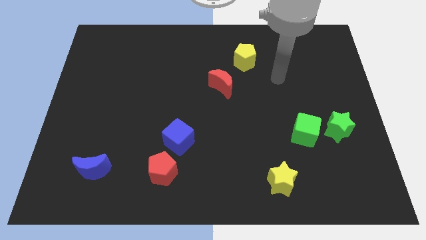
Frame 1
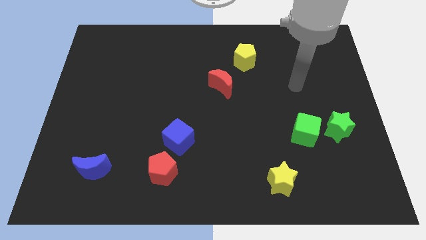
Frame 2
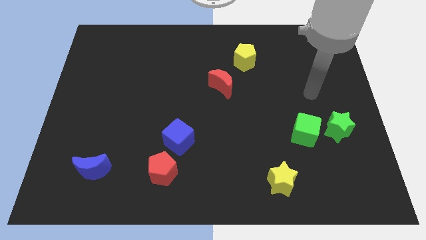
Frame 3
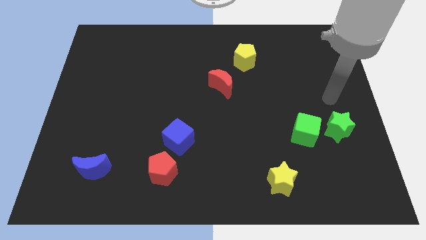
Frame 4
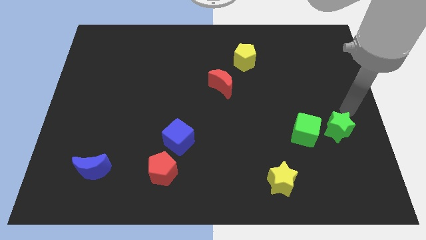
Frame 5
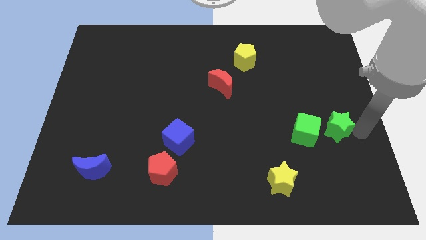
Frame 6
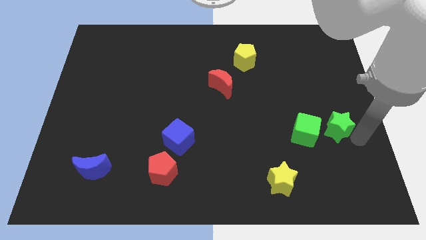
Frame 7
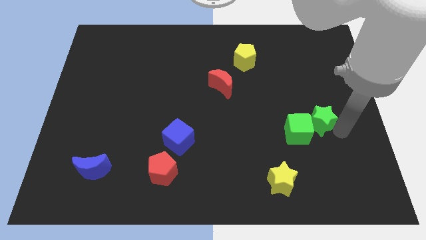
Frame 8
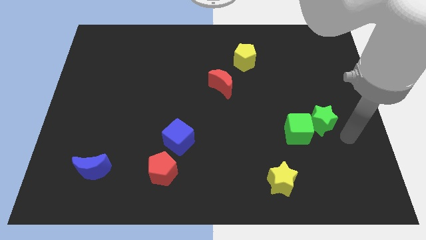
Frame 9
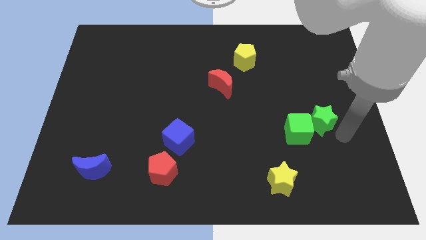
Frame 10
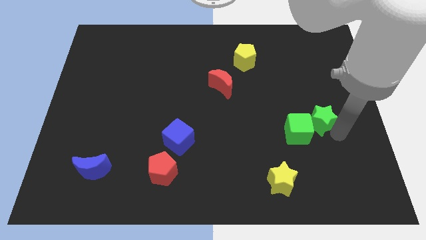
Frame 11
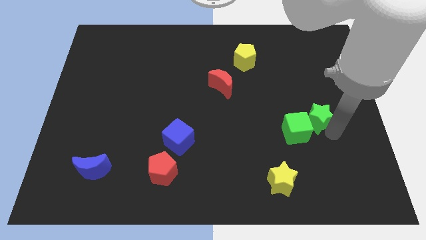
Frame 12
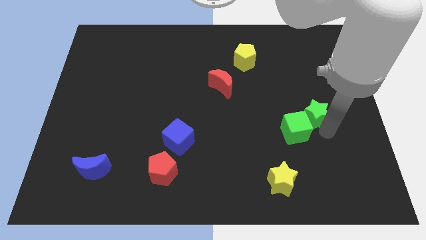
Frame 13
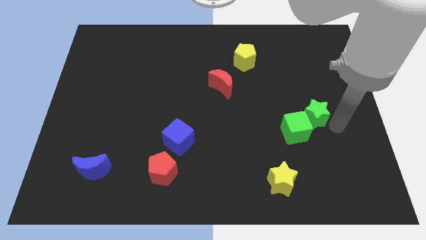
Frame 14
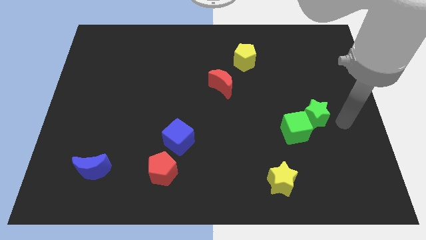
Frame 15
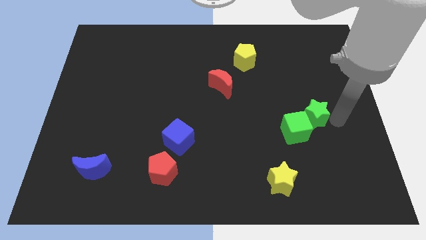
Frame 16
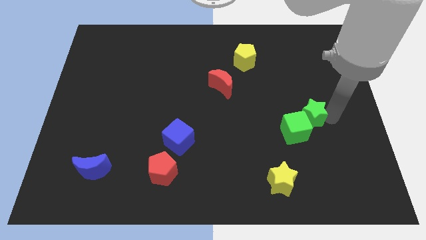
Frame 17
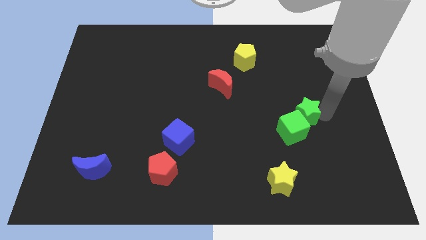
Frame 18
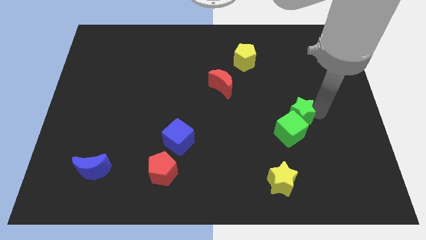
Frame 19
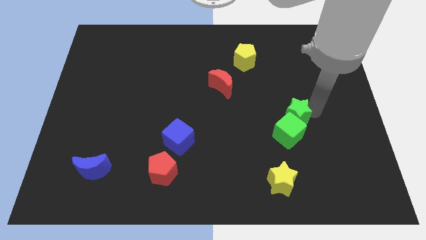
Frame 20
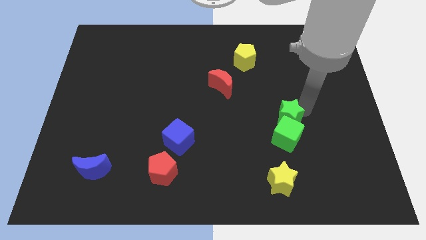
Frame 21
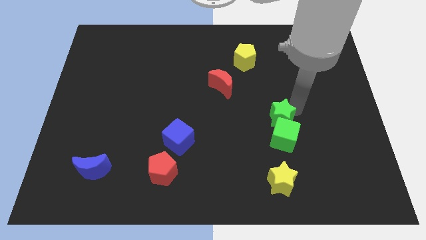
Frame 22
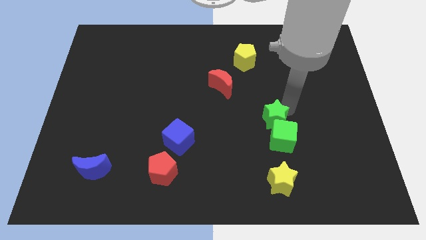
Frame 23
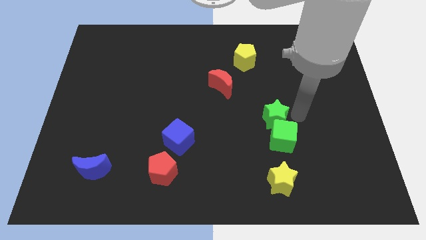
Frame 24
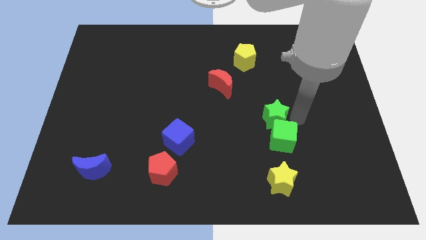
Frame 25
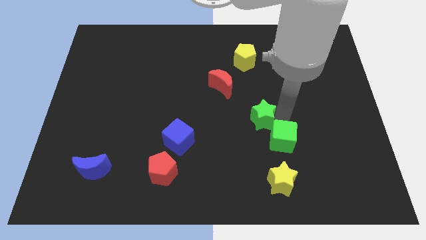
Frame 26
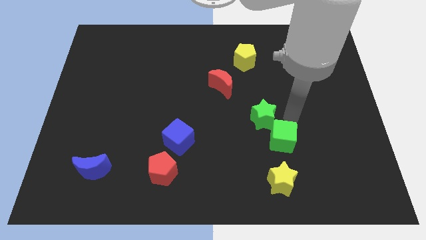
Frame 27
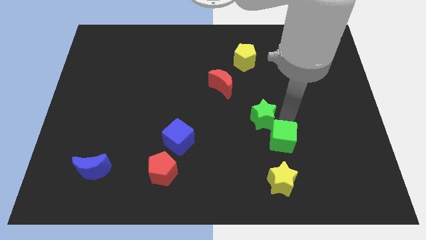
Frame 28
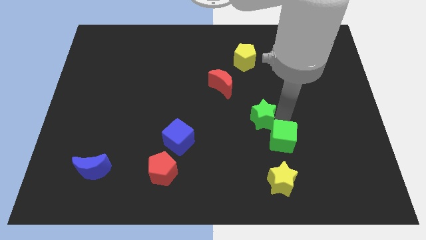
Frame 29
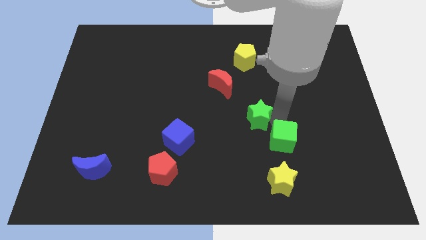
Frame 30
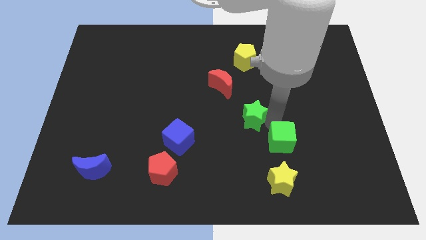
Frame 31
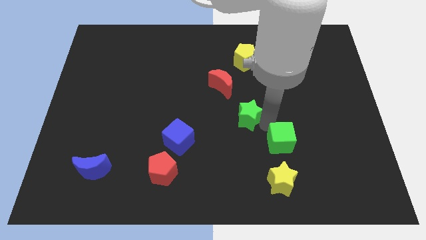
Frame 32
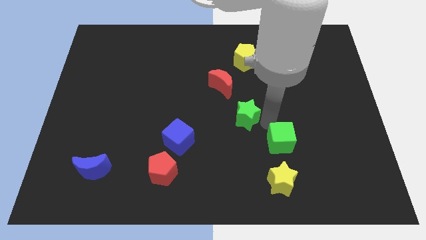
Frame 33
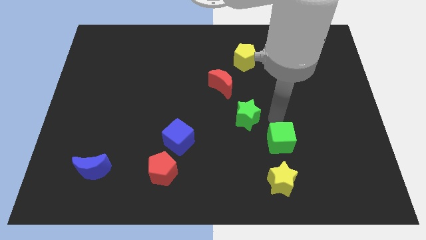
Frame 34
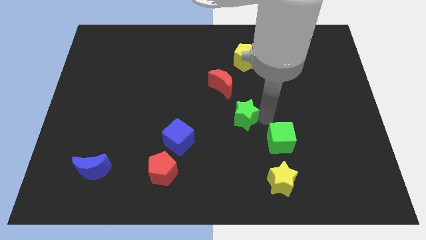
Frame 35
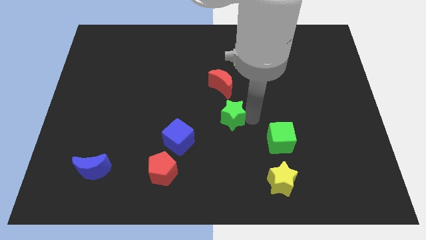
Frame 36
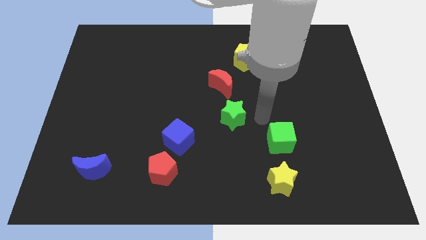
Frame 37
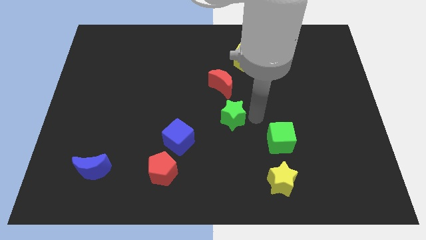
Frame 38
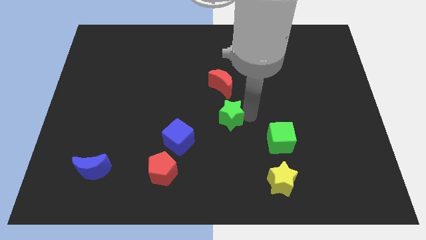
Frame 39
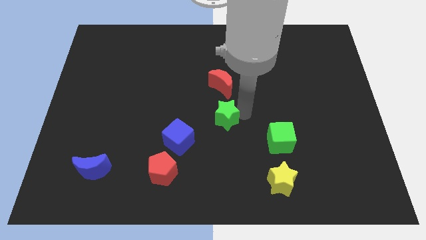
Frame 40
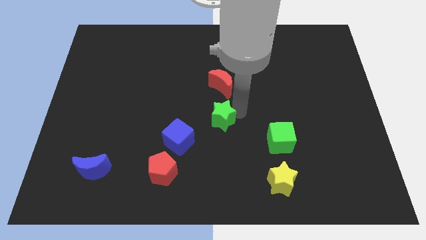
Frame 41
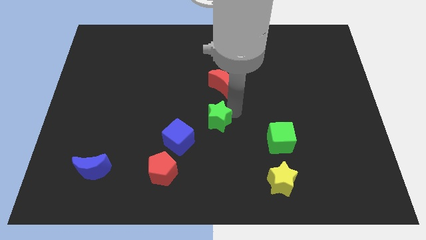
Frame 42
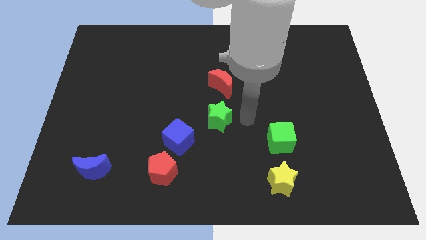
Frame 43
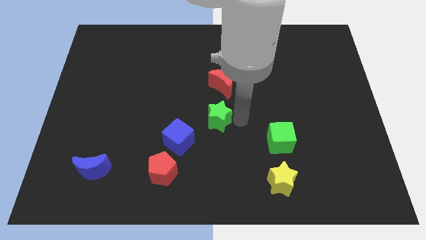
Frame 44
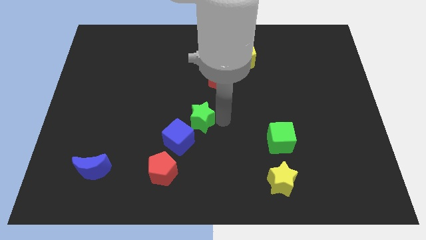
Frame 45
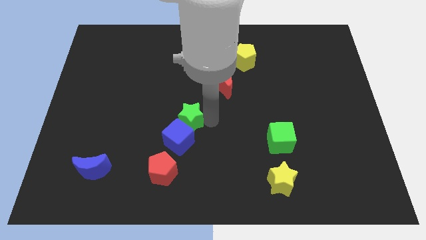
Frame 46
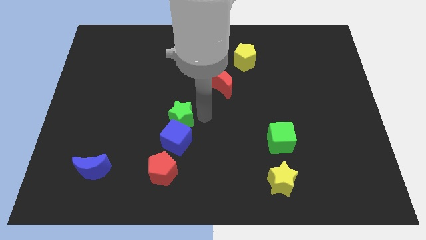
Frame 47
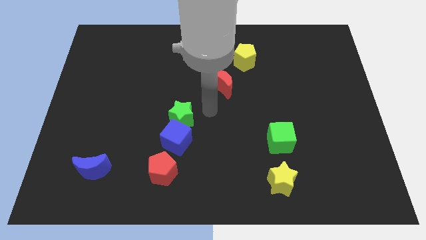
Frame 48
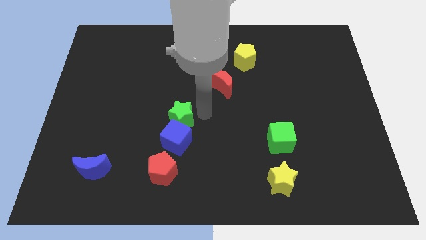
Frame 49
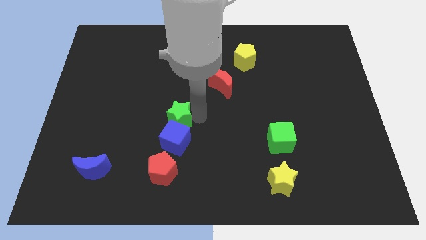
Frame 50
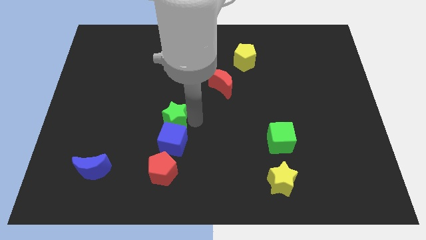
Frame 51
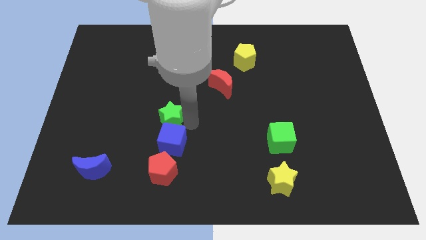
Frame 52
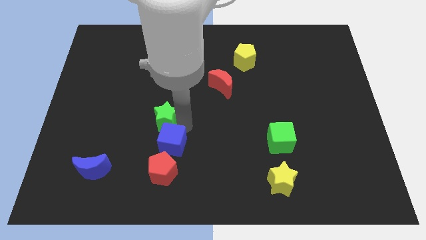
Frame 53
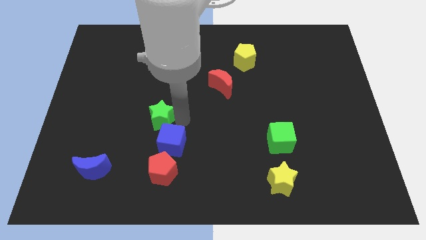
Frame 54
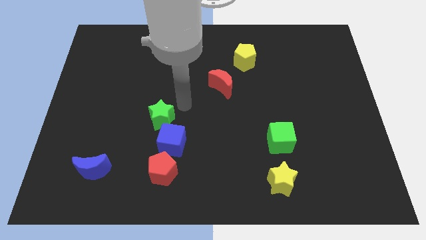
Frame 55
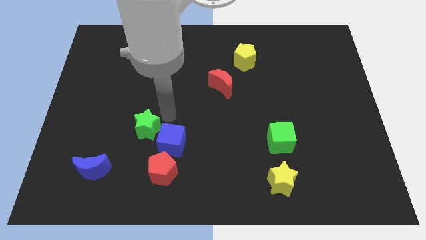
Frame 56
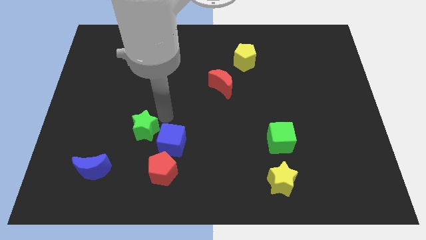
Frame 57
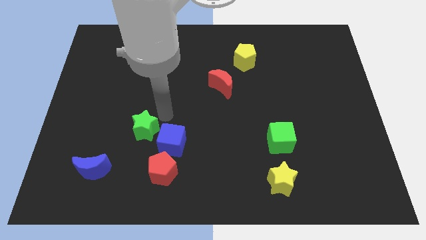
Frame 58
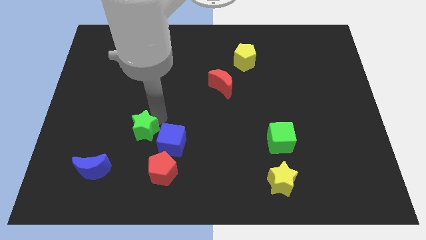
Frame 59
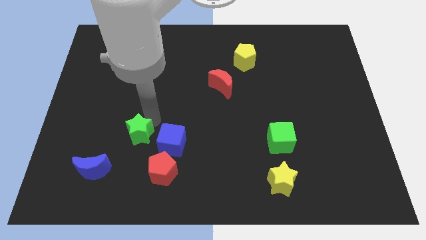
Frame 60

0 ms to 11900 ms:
put the green star to the top right of the blue moon

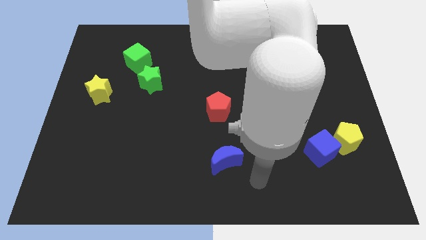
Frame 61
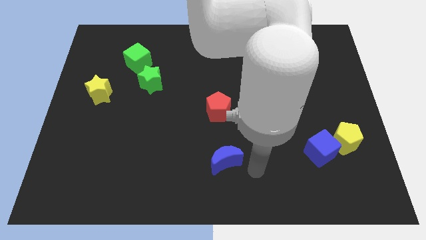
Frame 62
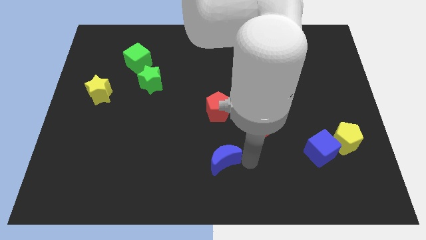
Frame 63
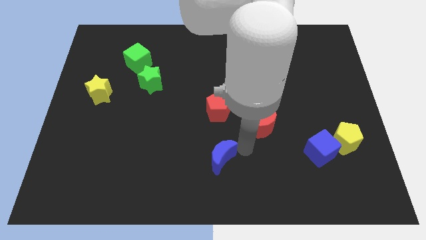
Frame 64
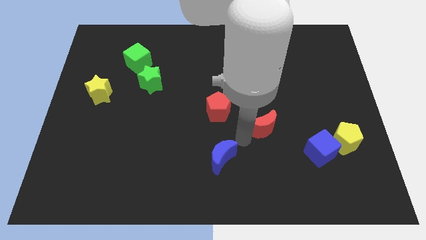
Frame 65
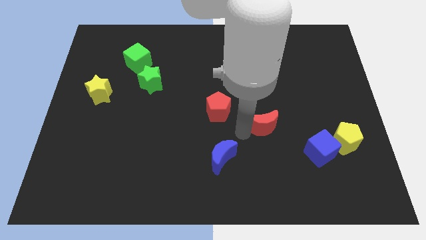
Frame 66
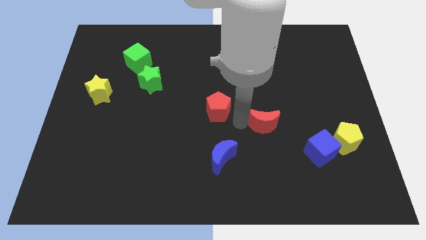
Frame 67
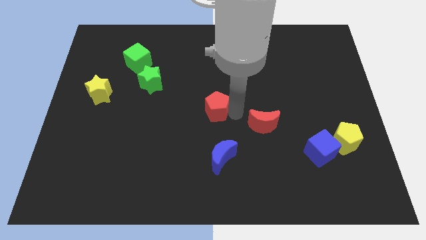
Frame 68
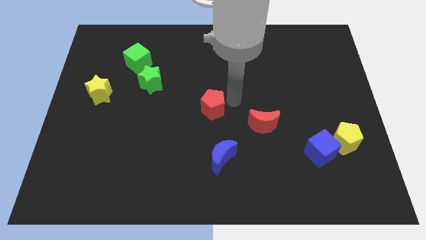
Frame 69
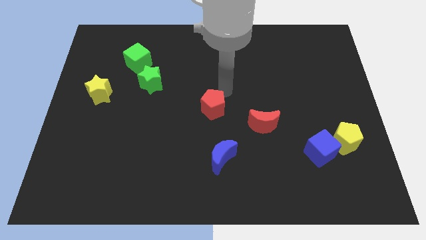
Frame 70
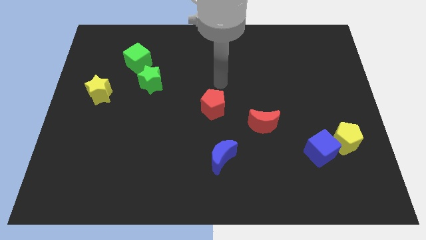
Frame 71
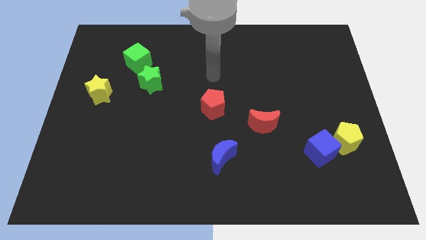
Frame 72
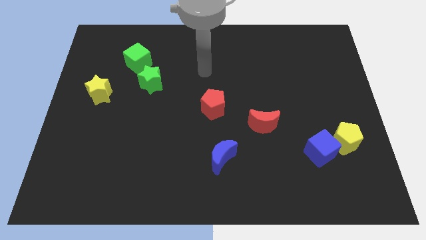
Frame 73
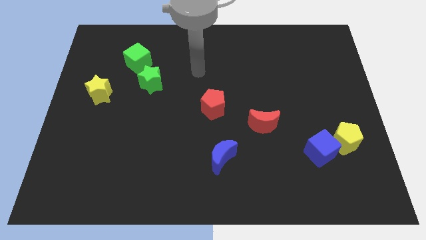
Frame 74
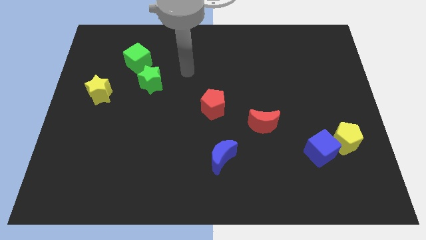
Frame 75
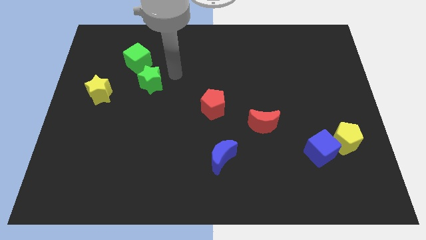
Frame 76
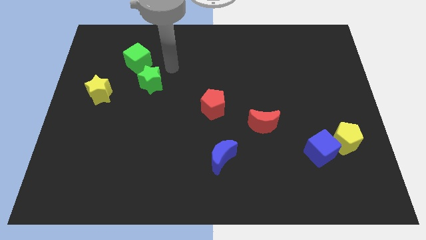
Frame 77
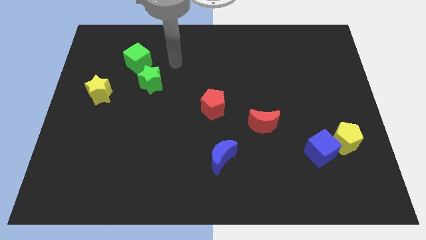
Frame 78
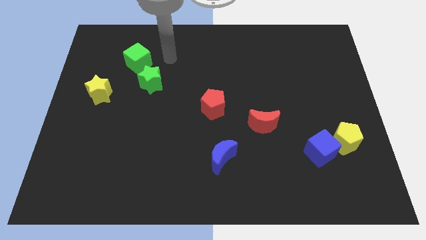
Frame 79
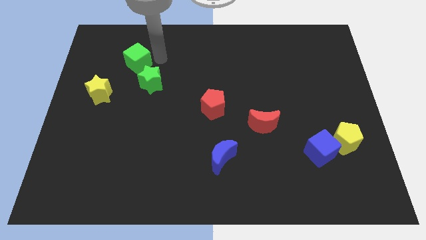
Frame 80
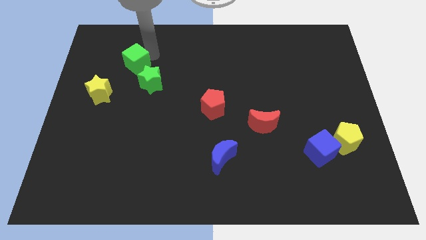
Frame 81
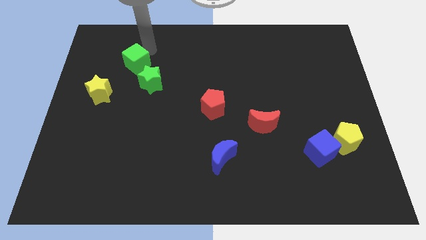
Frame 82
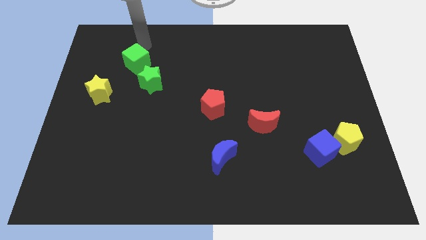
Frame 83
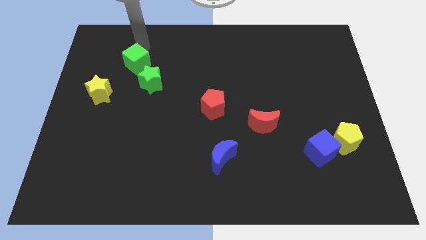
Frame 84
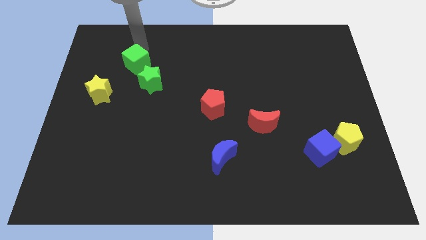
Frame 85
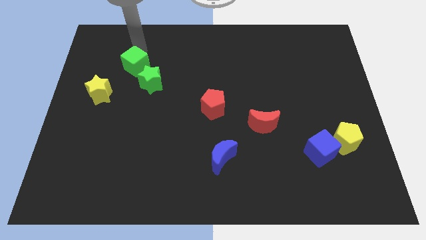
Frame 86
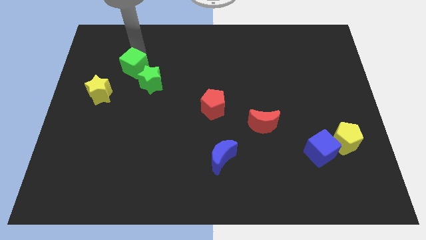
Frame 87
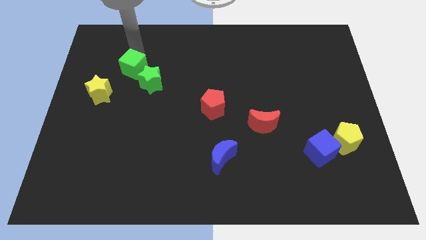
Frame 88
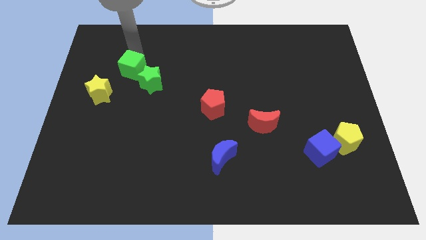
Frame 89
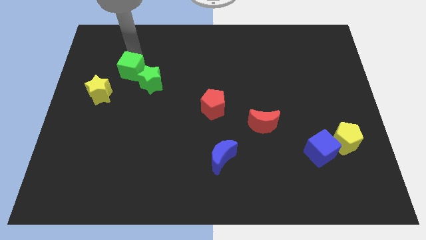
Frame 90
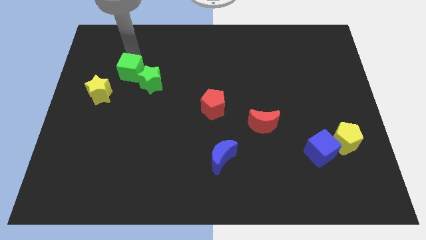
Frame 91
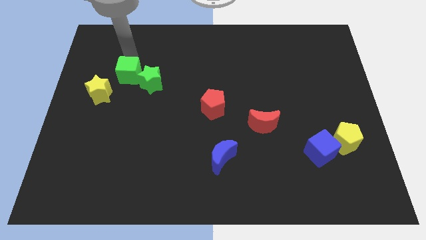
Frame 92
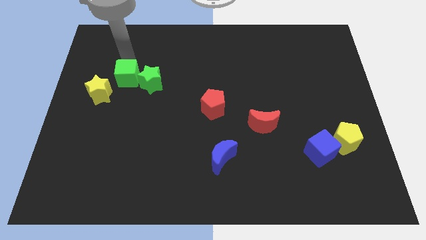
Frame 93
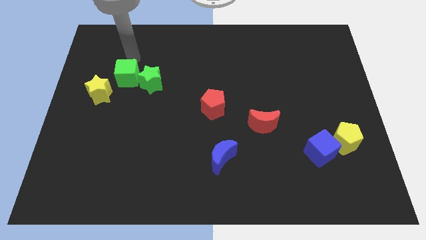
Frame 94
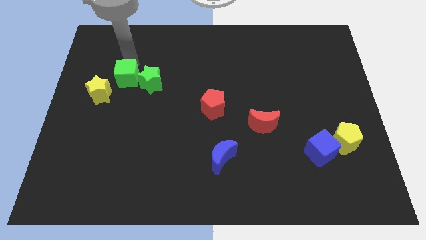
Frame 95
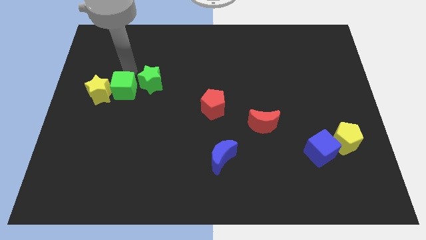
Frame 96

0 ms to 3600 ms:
push the green cube diagonally down and to the right of the yellow star
